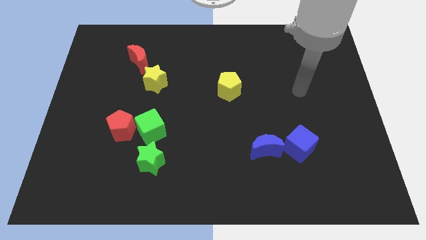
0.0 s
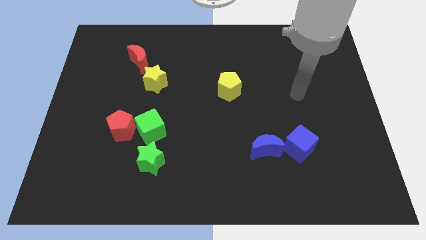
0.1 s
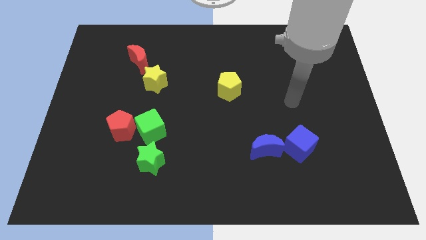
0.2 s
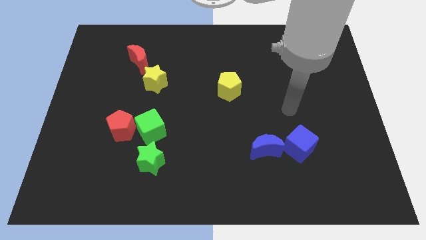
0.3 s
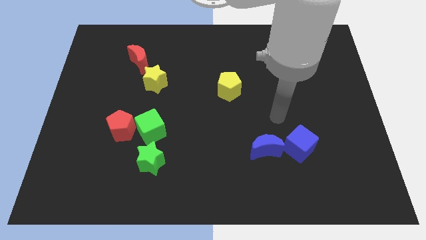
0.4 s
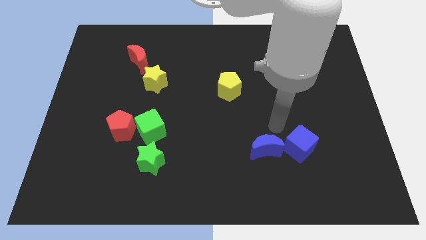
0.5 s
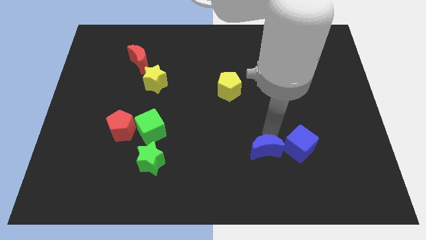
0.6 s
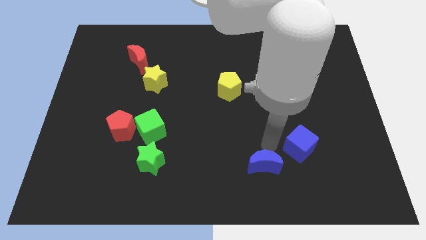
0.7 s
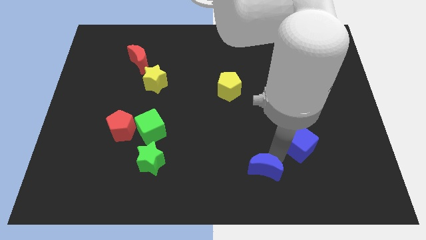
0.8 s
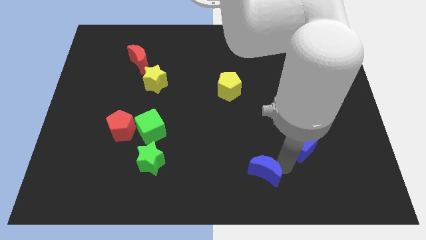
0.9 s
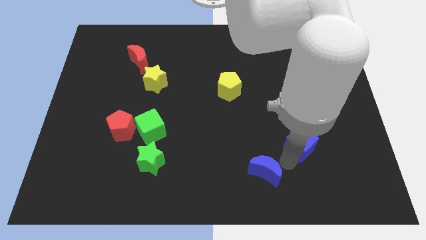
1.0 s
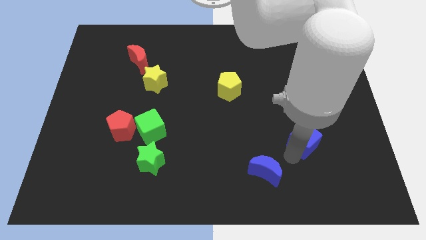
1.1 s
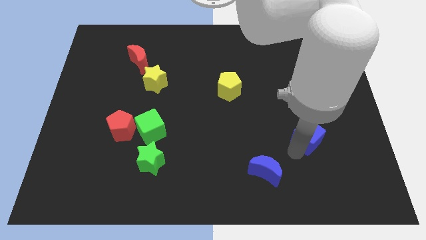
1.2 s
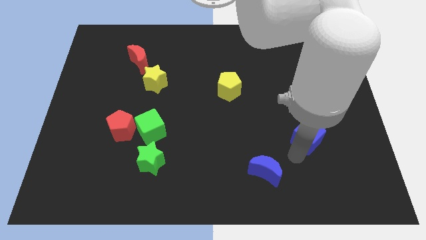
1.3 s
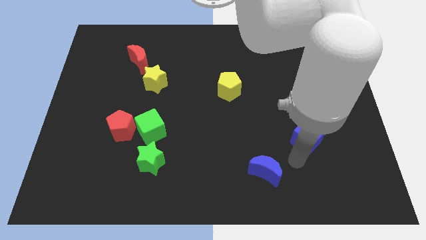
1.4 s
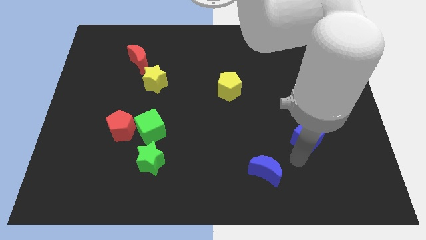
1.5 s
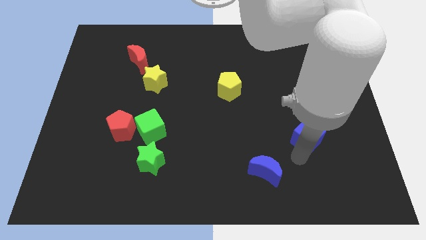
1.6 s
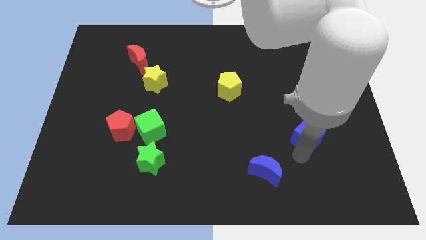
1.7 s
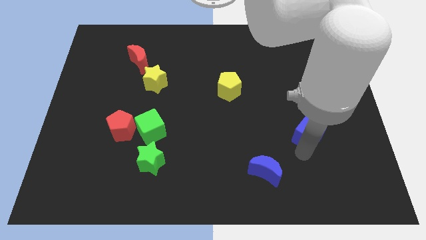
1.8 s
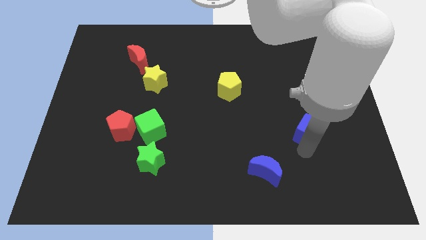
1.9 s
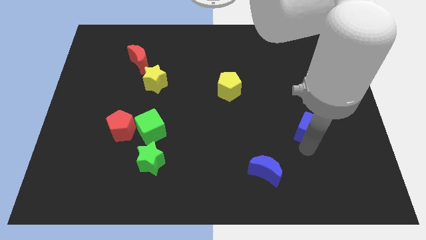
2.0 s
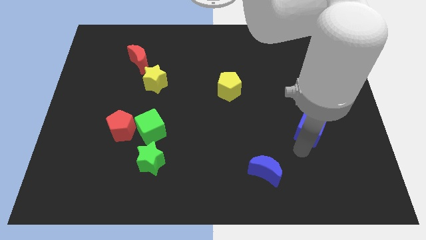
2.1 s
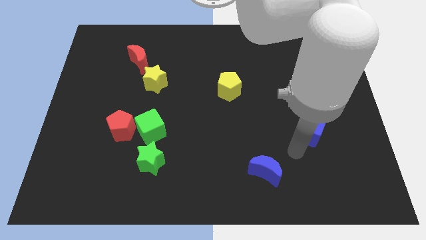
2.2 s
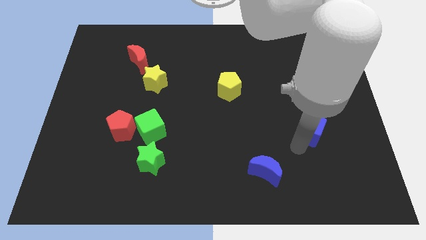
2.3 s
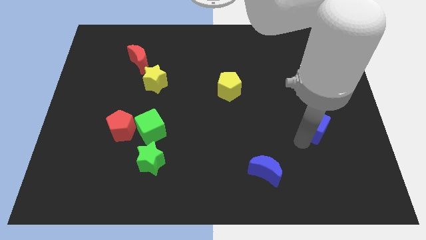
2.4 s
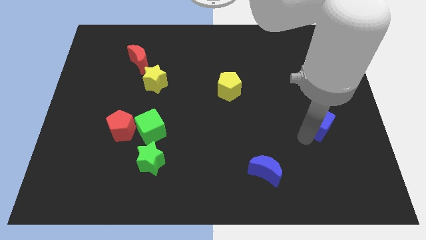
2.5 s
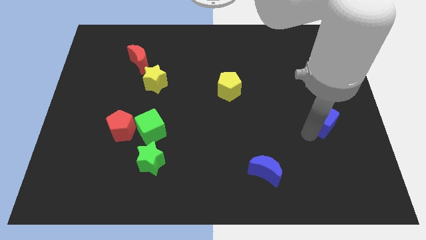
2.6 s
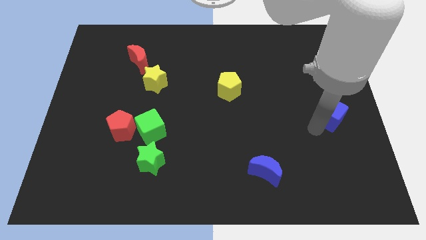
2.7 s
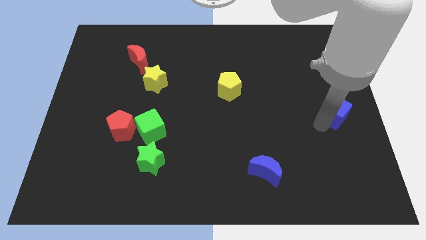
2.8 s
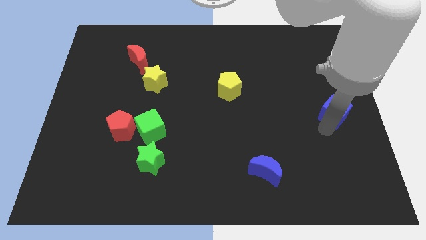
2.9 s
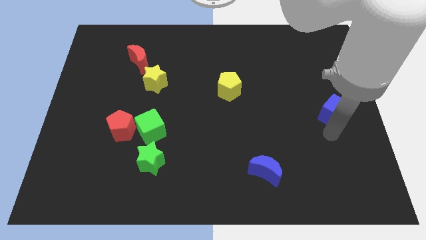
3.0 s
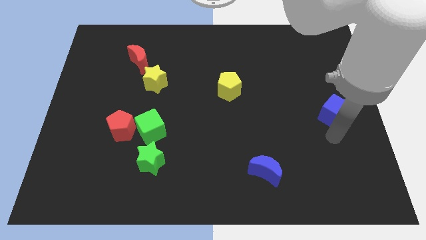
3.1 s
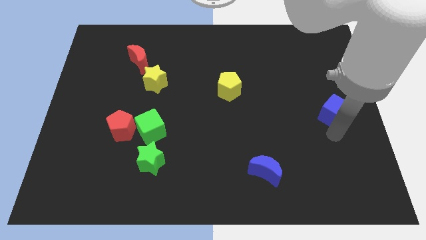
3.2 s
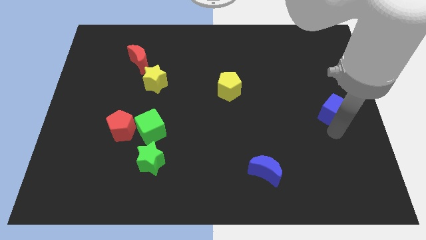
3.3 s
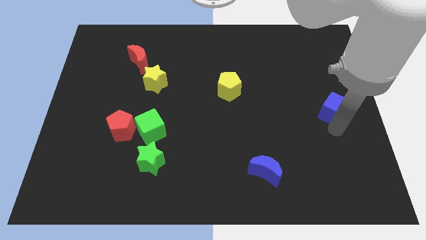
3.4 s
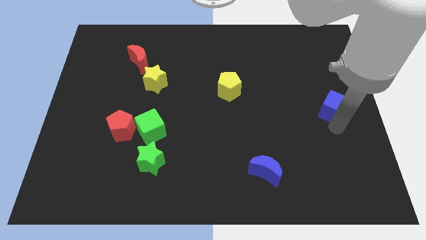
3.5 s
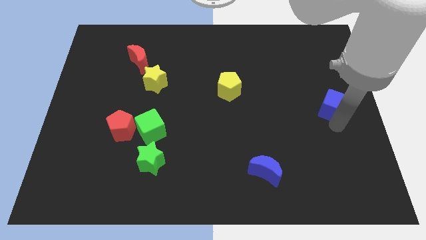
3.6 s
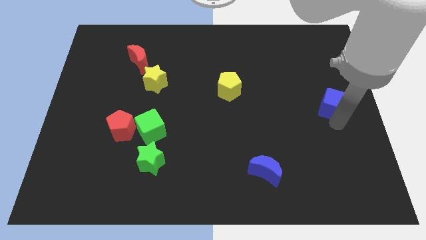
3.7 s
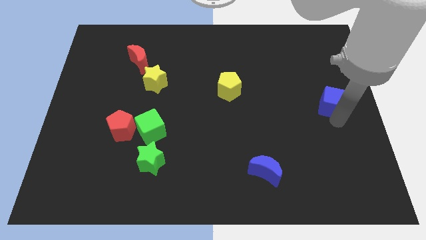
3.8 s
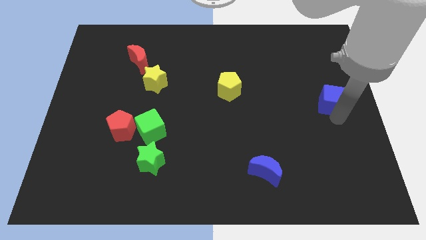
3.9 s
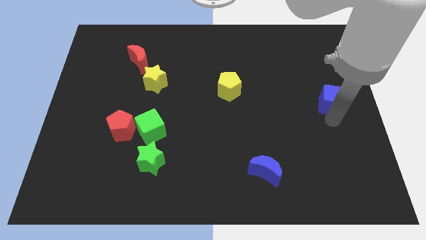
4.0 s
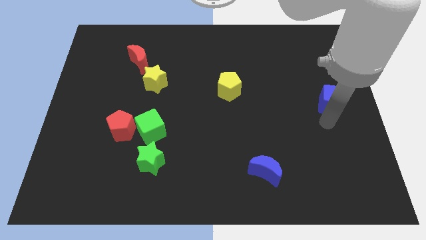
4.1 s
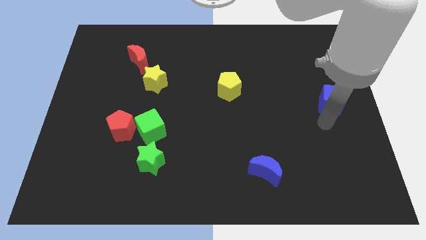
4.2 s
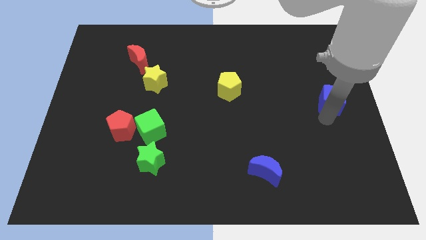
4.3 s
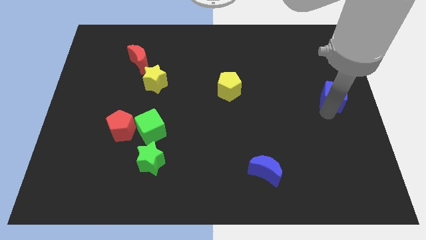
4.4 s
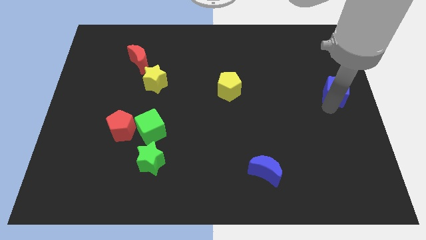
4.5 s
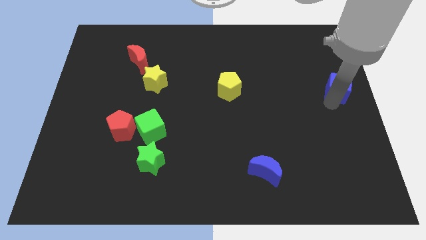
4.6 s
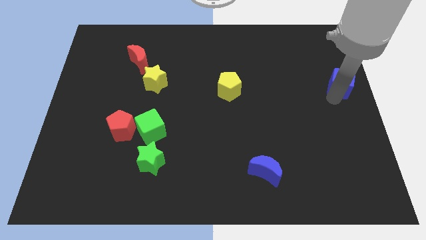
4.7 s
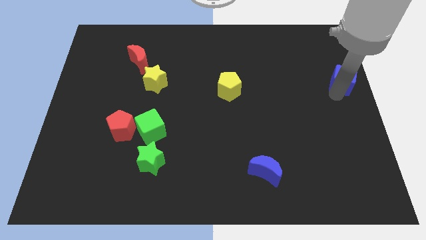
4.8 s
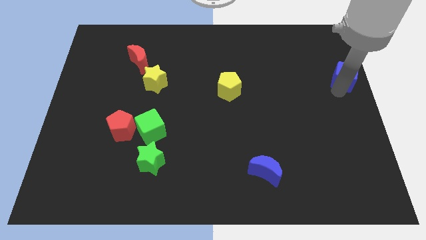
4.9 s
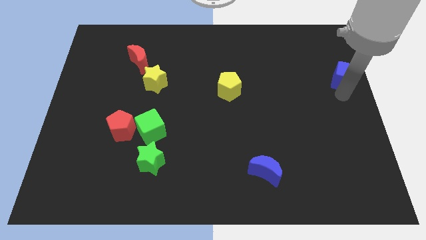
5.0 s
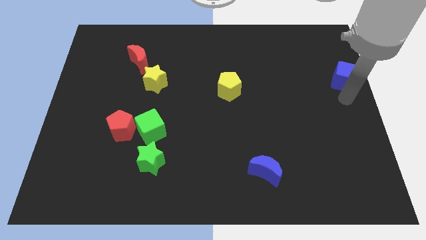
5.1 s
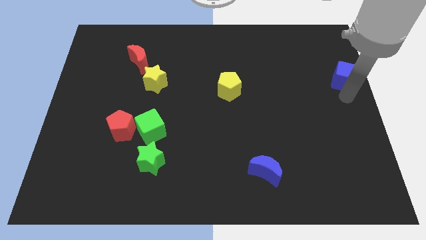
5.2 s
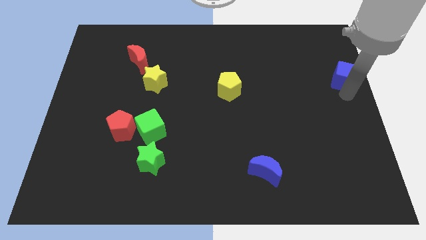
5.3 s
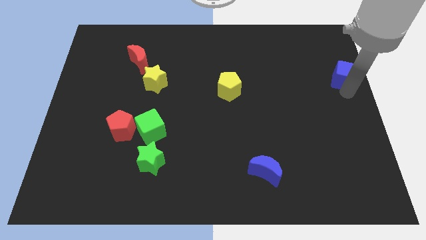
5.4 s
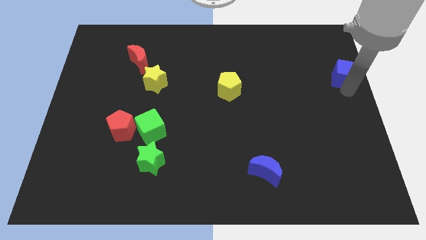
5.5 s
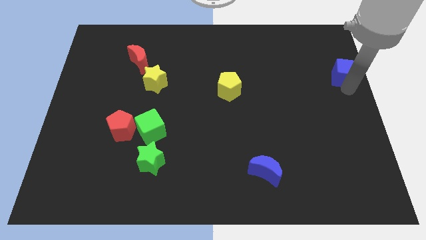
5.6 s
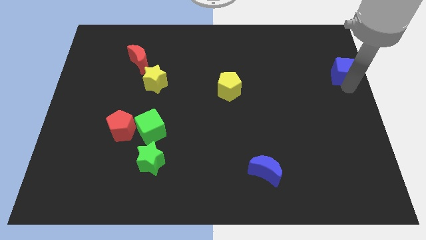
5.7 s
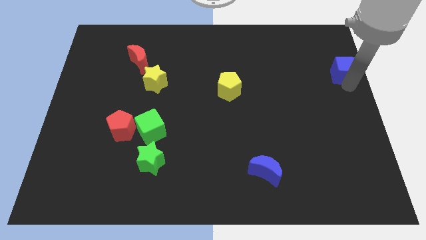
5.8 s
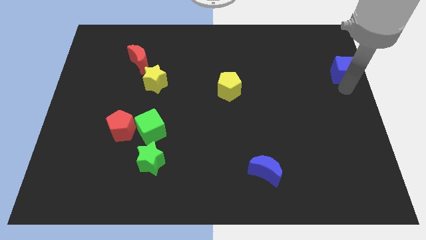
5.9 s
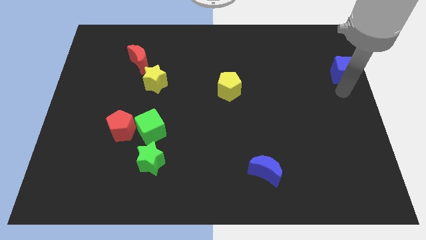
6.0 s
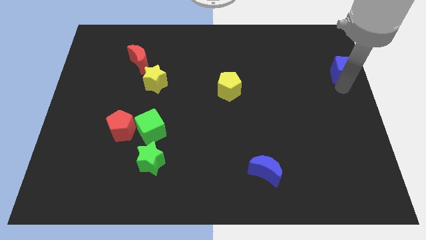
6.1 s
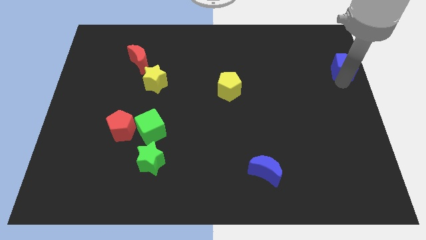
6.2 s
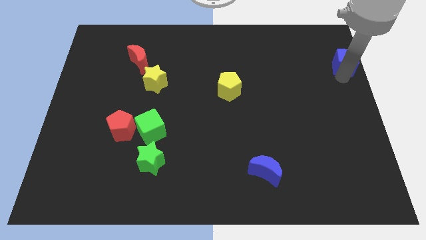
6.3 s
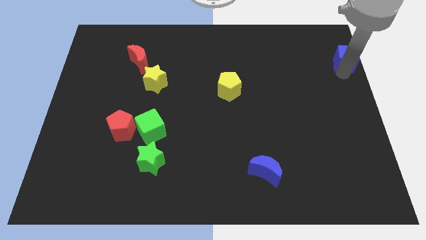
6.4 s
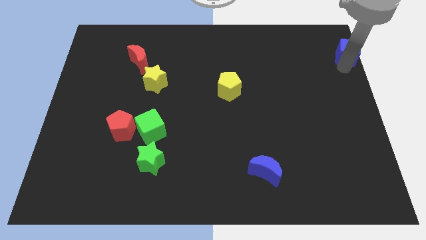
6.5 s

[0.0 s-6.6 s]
push the blue cube to the top right of the board
